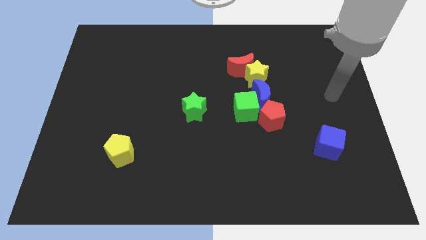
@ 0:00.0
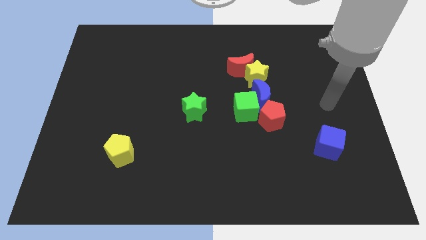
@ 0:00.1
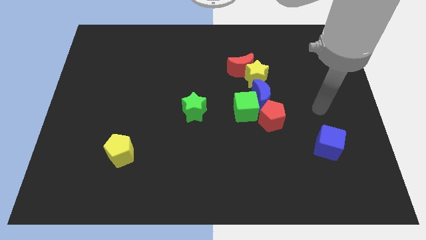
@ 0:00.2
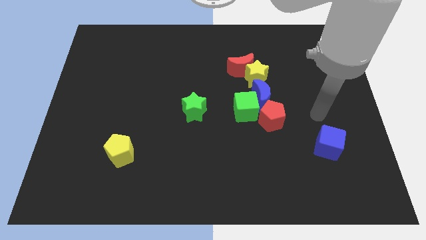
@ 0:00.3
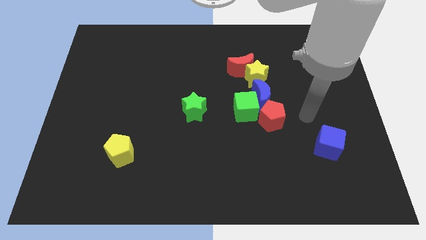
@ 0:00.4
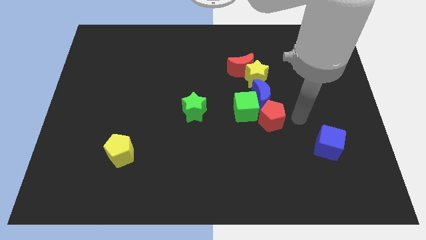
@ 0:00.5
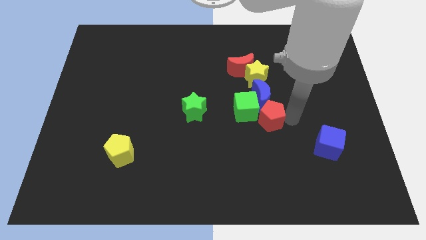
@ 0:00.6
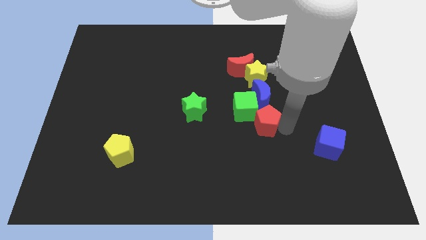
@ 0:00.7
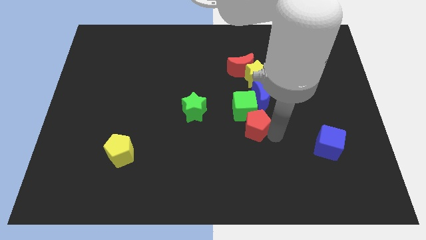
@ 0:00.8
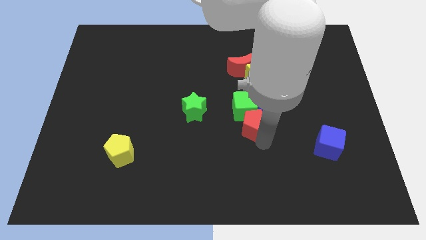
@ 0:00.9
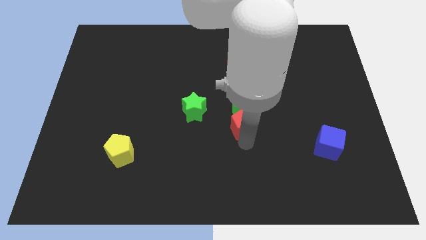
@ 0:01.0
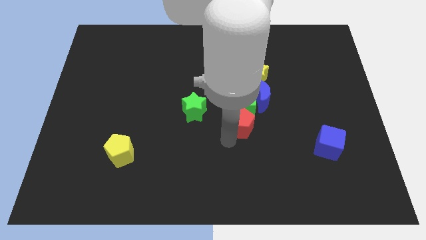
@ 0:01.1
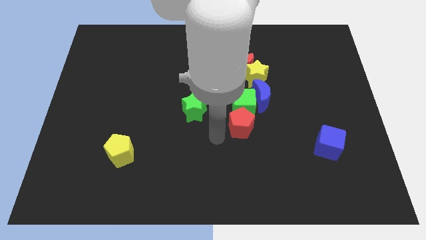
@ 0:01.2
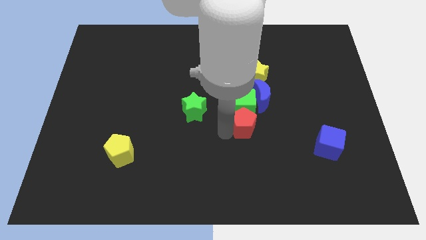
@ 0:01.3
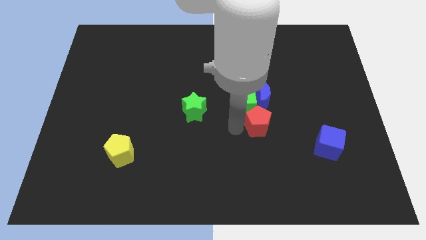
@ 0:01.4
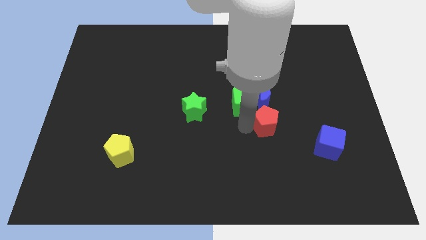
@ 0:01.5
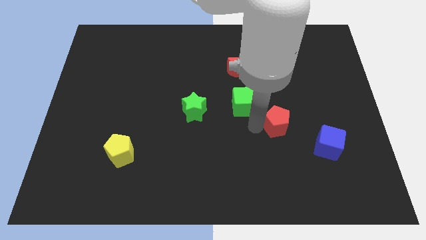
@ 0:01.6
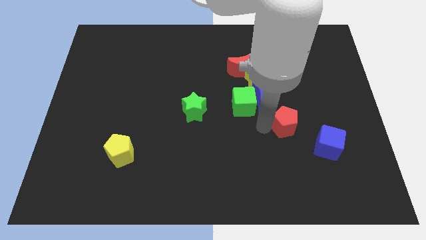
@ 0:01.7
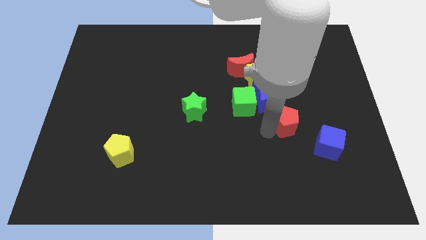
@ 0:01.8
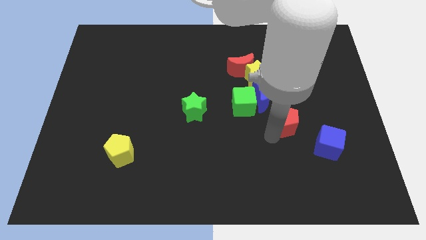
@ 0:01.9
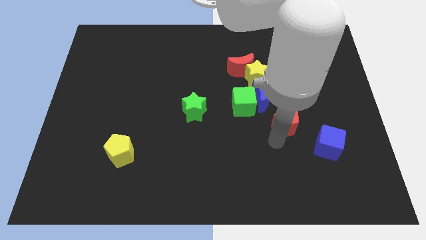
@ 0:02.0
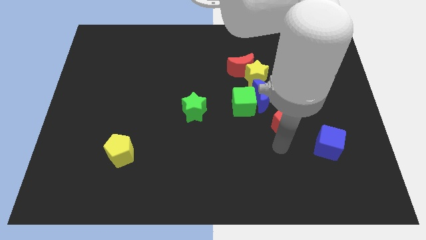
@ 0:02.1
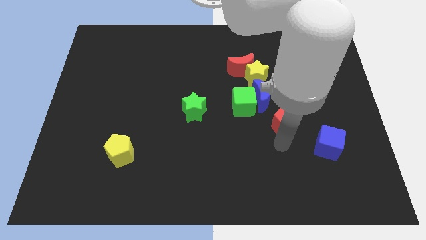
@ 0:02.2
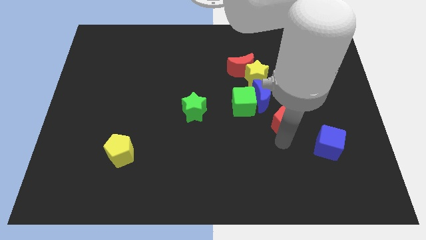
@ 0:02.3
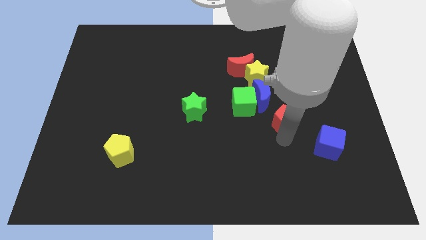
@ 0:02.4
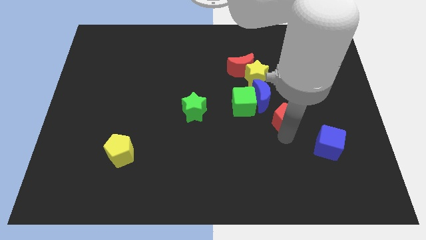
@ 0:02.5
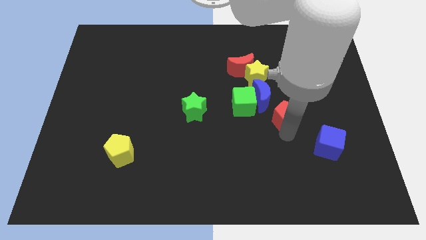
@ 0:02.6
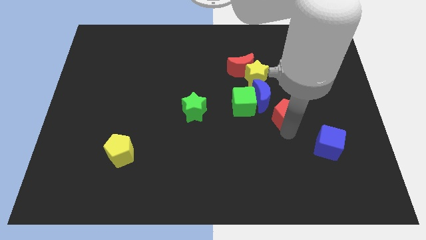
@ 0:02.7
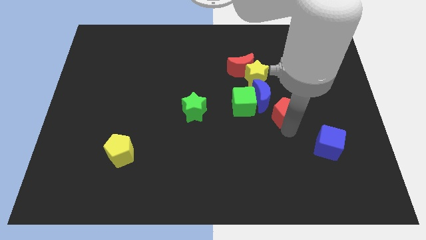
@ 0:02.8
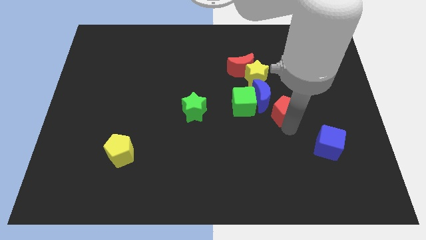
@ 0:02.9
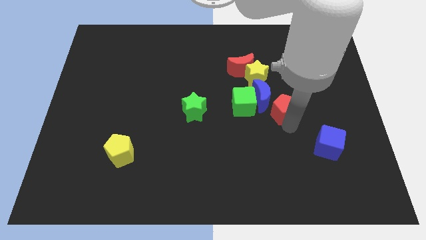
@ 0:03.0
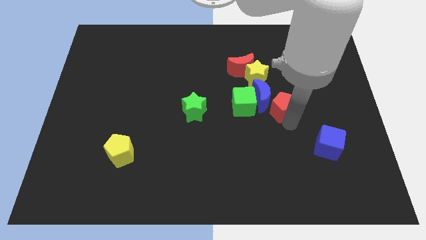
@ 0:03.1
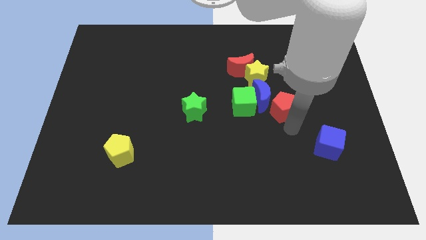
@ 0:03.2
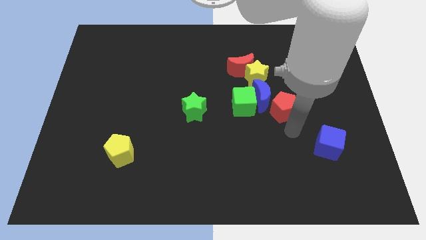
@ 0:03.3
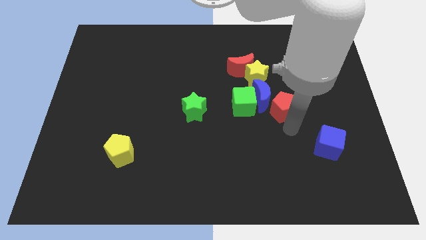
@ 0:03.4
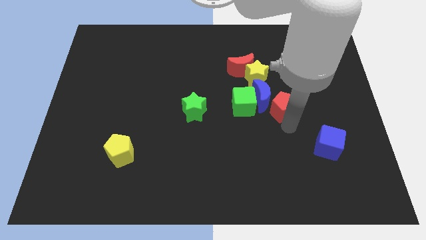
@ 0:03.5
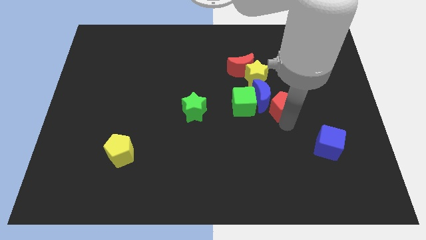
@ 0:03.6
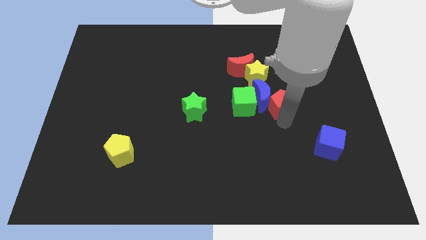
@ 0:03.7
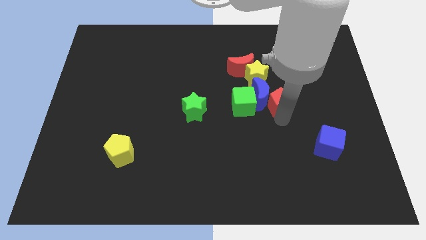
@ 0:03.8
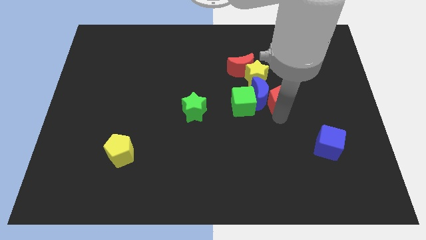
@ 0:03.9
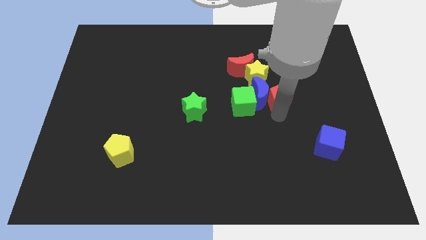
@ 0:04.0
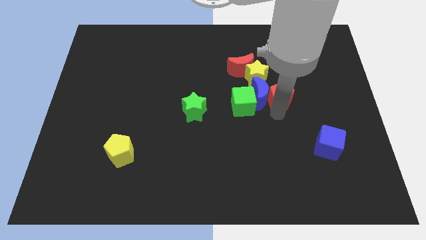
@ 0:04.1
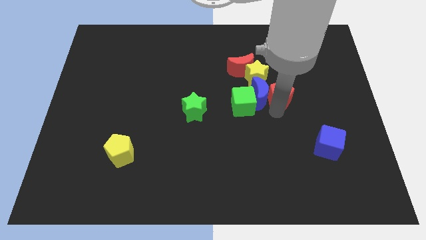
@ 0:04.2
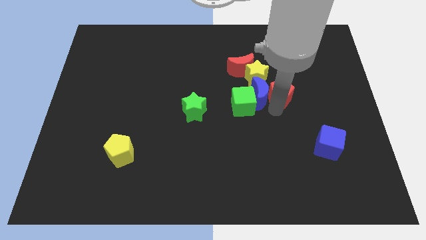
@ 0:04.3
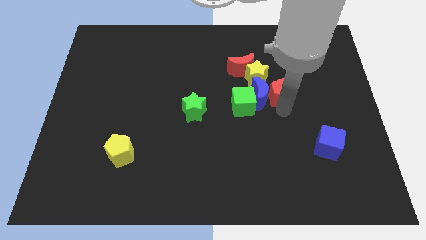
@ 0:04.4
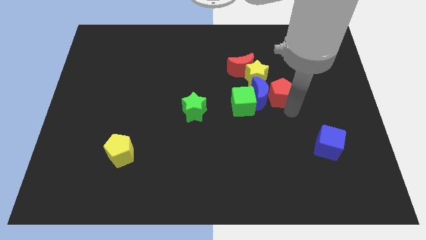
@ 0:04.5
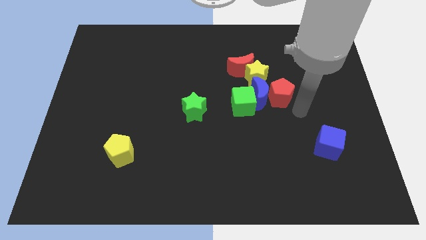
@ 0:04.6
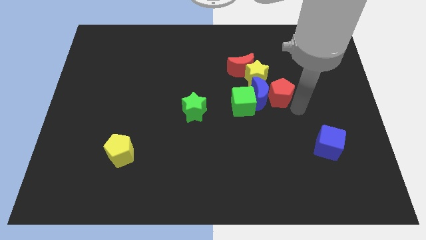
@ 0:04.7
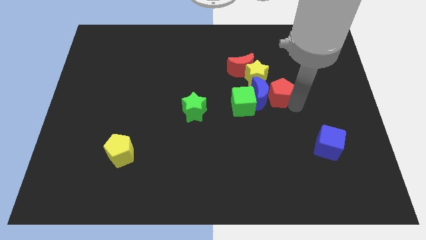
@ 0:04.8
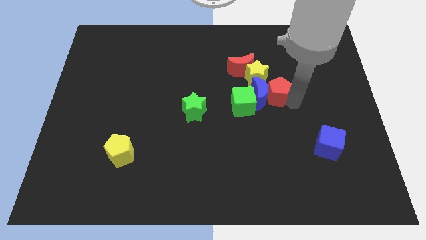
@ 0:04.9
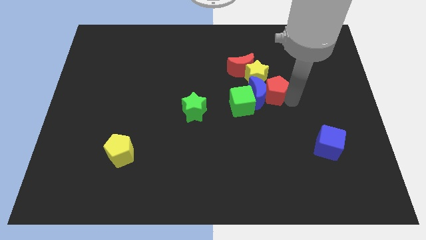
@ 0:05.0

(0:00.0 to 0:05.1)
put the red pentagon close to the yellow star

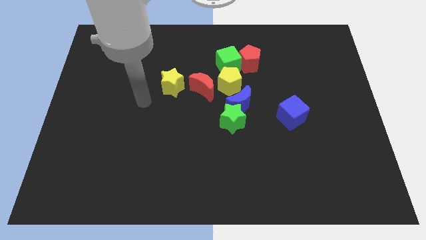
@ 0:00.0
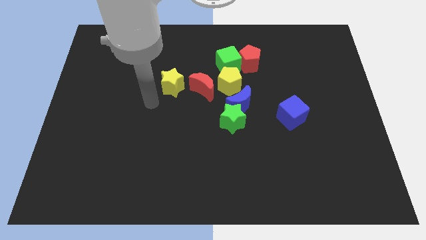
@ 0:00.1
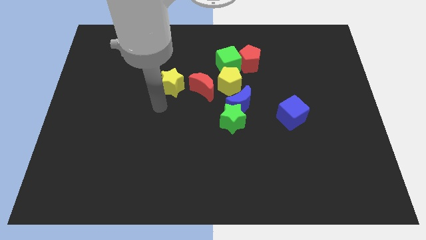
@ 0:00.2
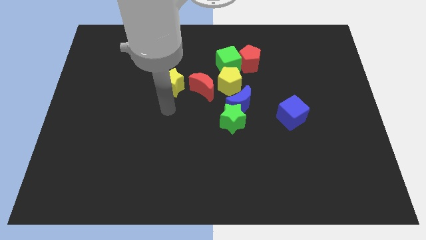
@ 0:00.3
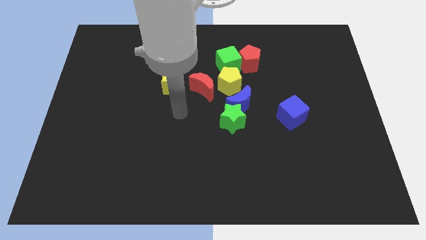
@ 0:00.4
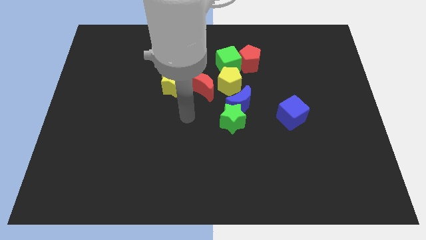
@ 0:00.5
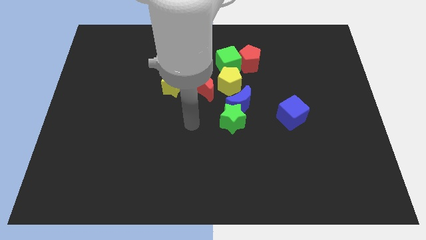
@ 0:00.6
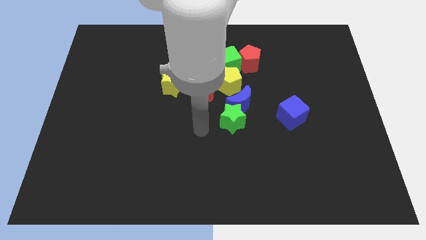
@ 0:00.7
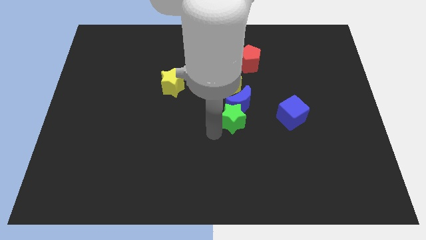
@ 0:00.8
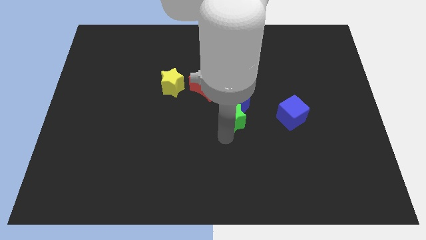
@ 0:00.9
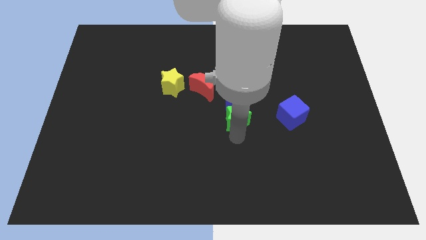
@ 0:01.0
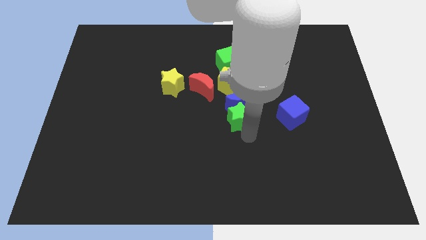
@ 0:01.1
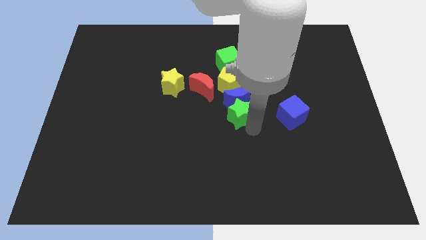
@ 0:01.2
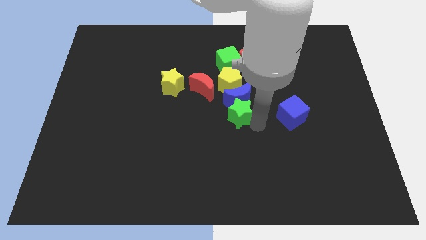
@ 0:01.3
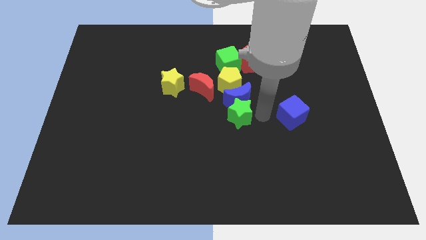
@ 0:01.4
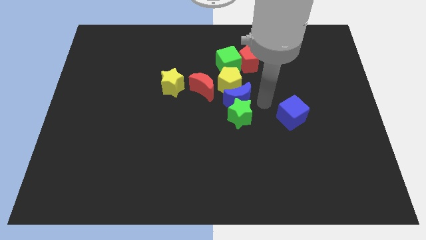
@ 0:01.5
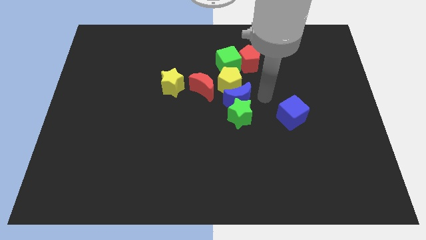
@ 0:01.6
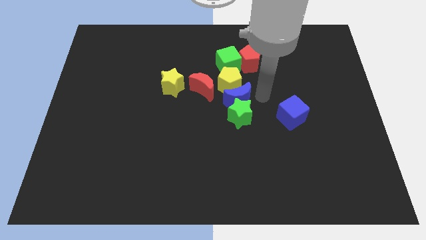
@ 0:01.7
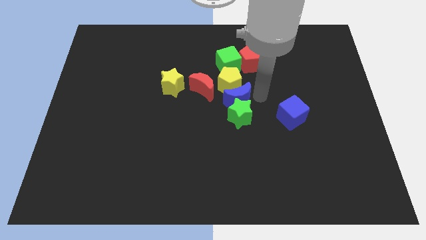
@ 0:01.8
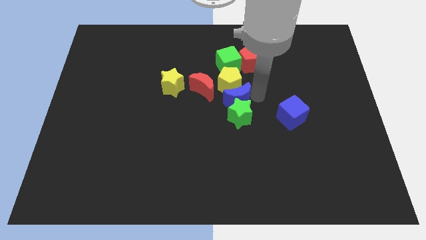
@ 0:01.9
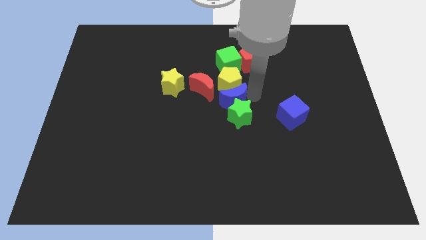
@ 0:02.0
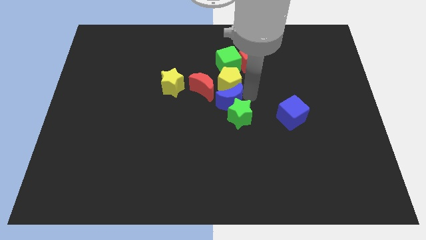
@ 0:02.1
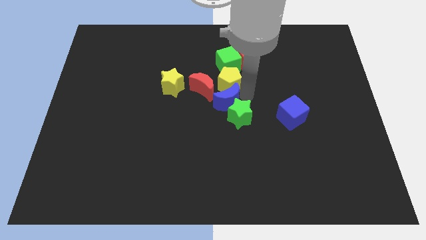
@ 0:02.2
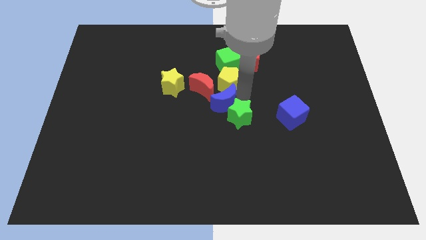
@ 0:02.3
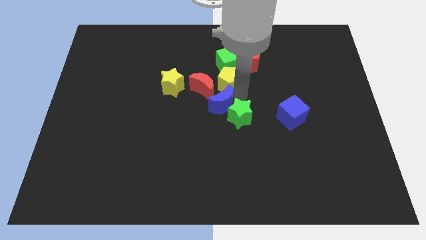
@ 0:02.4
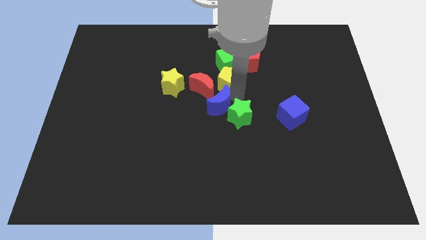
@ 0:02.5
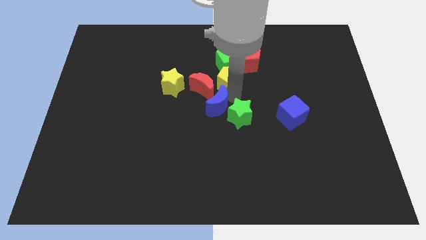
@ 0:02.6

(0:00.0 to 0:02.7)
push the blue moon next to the red moon
